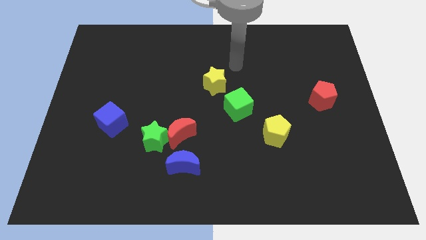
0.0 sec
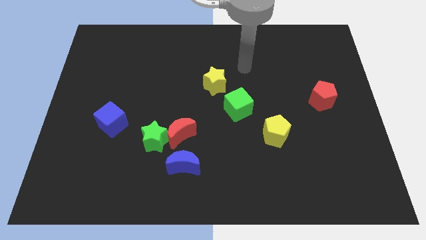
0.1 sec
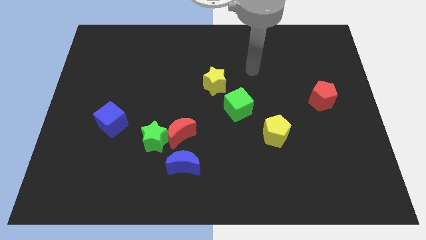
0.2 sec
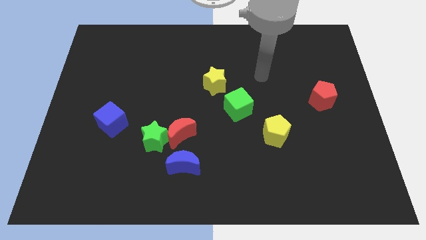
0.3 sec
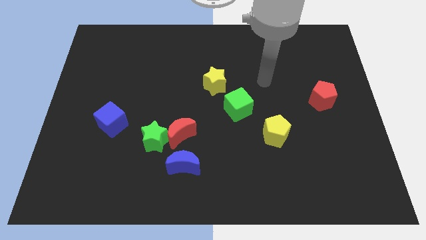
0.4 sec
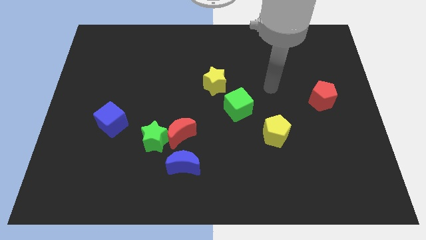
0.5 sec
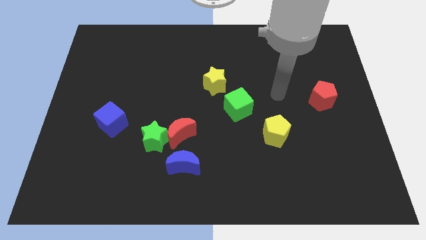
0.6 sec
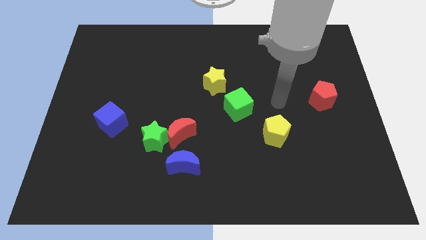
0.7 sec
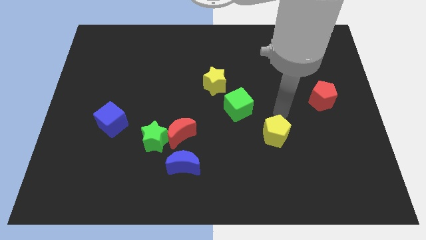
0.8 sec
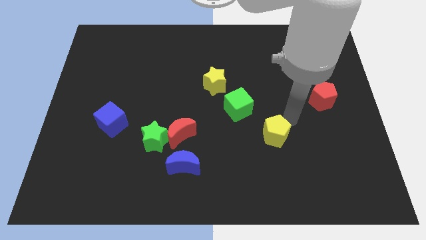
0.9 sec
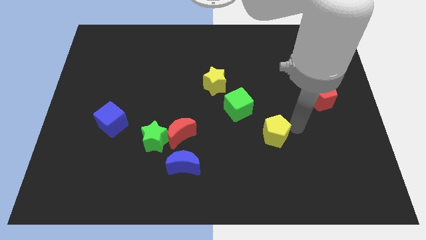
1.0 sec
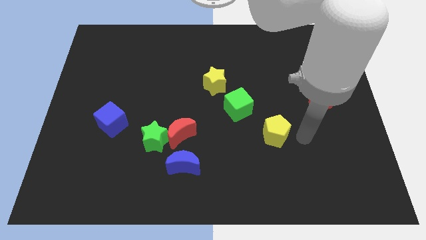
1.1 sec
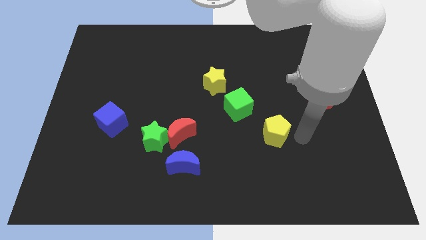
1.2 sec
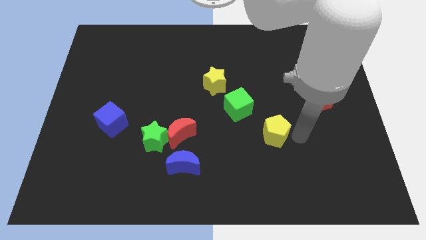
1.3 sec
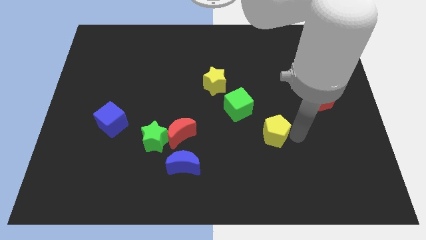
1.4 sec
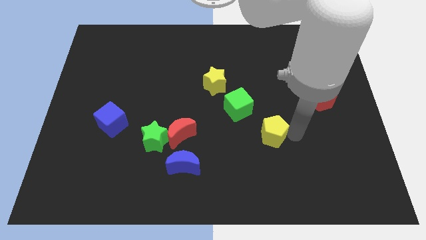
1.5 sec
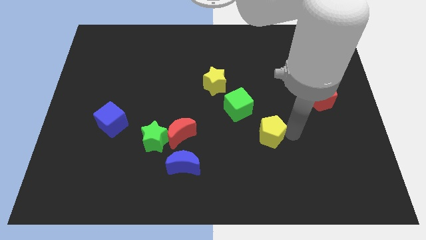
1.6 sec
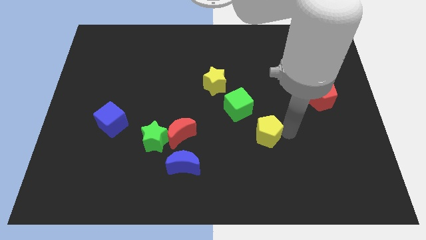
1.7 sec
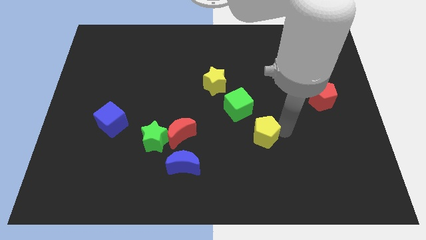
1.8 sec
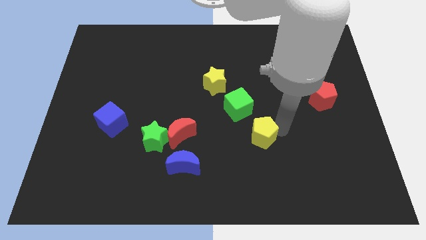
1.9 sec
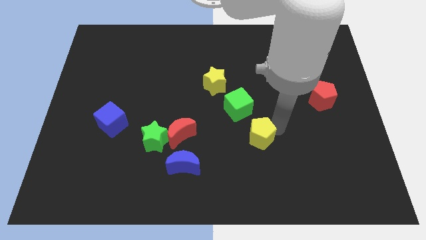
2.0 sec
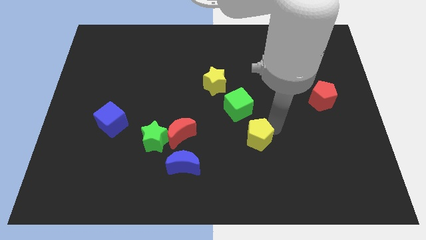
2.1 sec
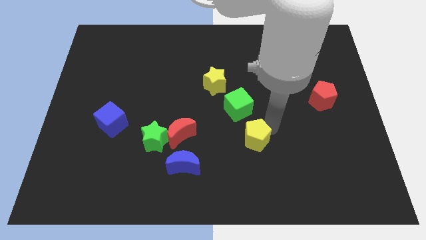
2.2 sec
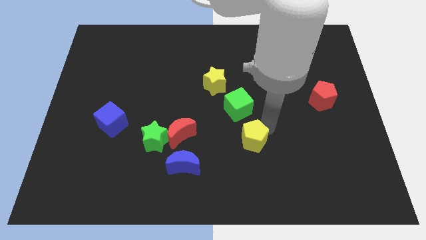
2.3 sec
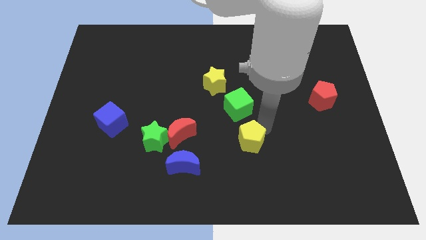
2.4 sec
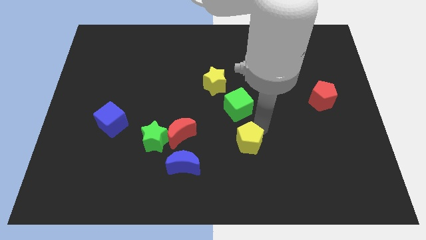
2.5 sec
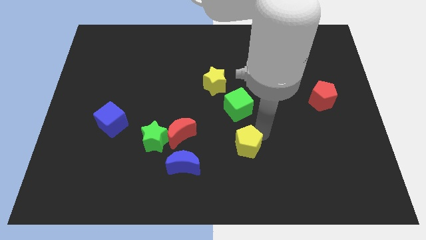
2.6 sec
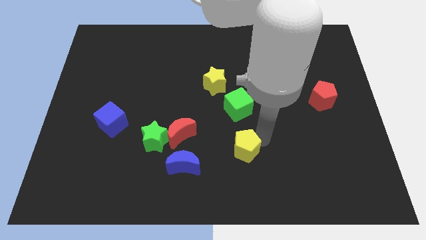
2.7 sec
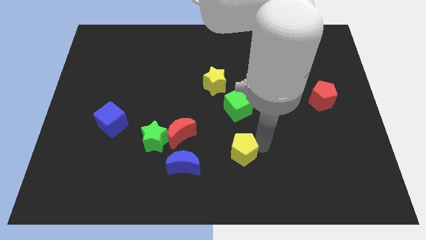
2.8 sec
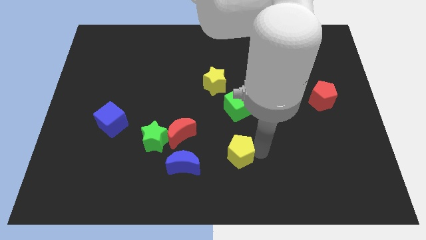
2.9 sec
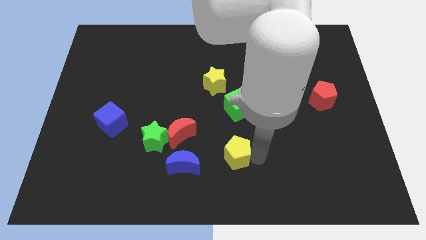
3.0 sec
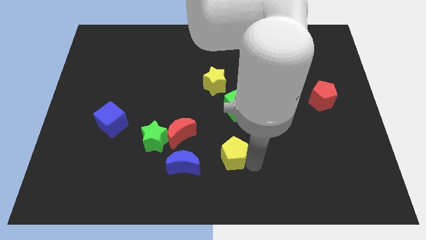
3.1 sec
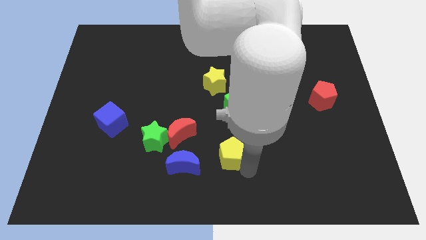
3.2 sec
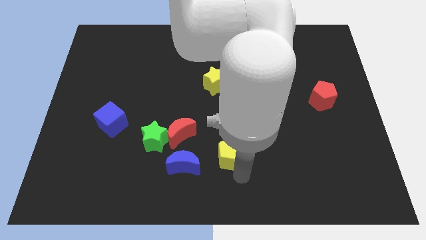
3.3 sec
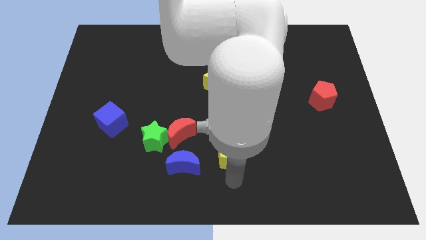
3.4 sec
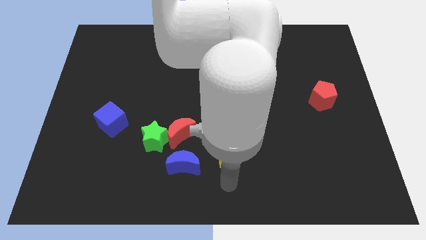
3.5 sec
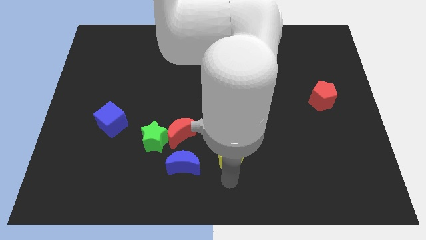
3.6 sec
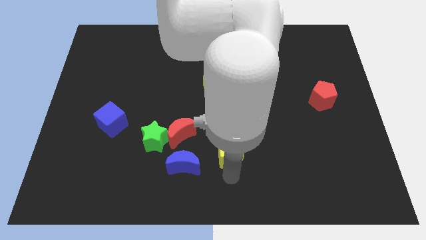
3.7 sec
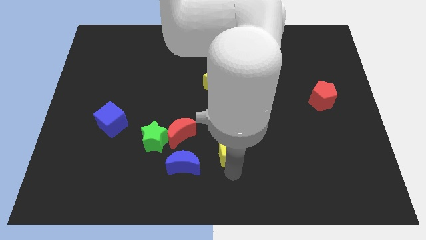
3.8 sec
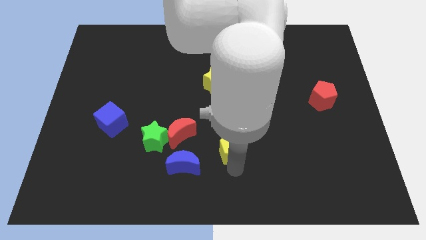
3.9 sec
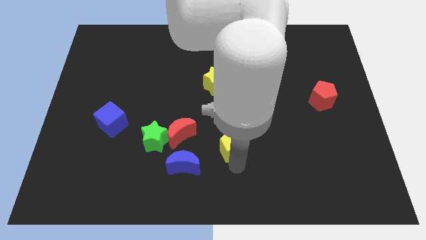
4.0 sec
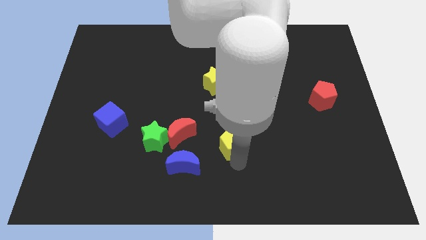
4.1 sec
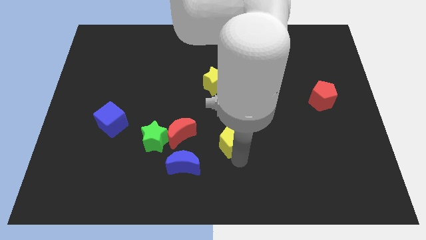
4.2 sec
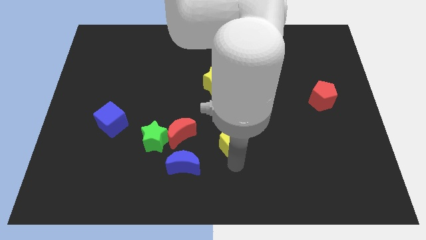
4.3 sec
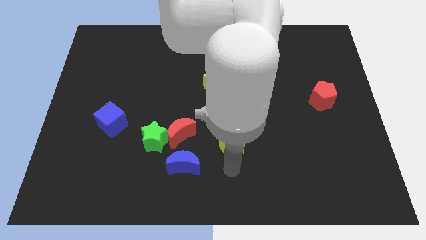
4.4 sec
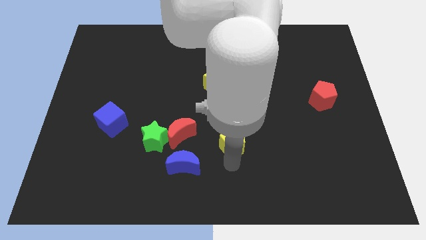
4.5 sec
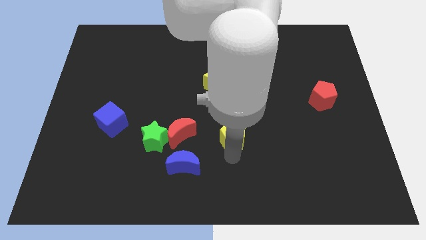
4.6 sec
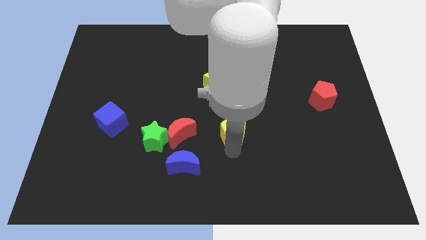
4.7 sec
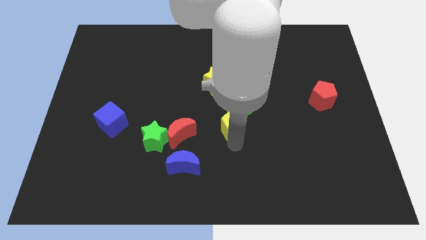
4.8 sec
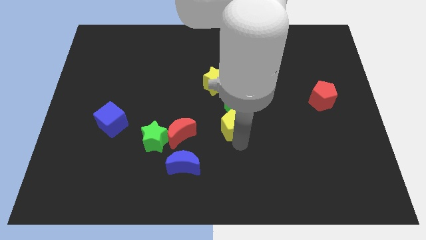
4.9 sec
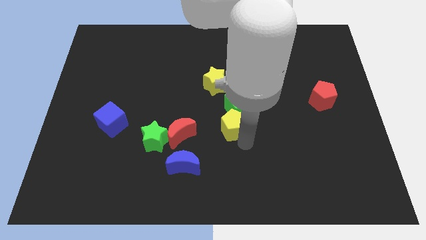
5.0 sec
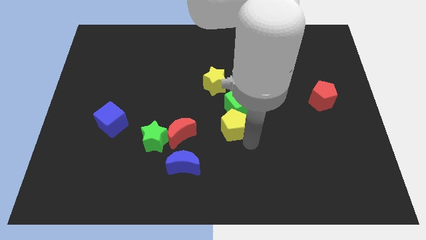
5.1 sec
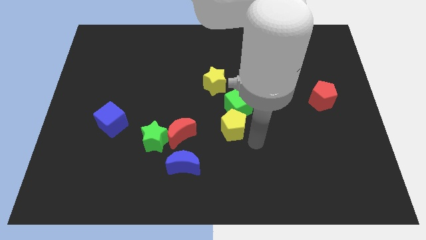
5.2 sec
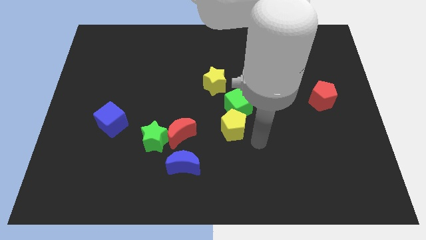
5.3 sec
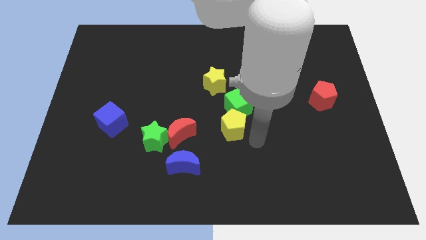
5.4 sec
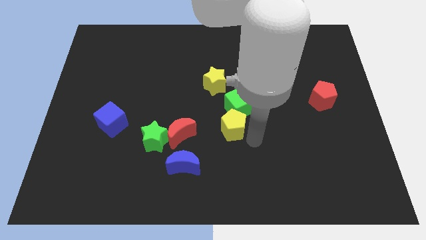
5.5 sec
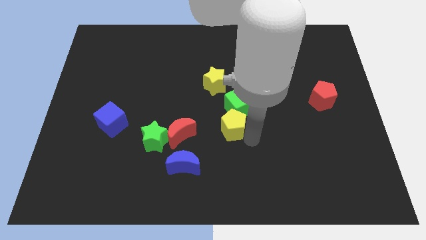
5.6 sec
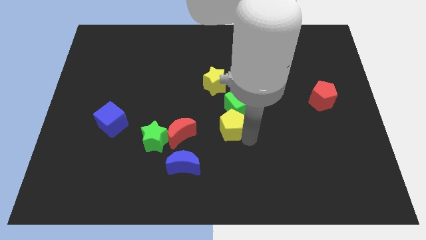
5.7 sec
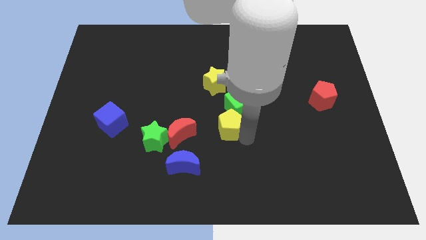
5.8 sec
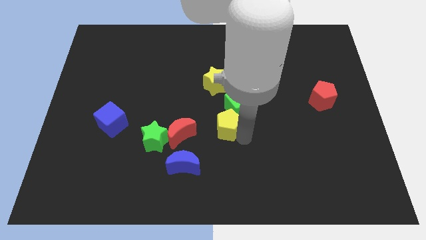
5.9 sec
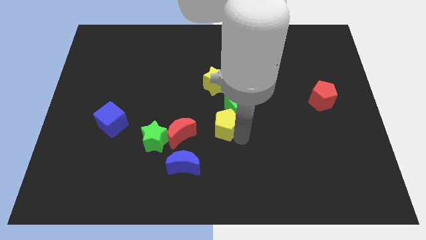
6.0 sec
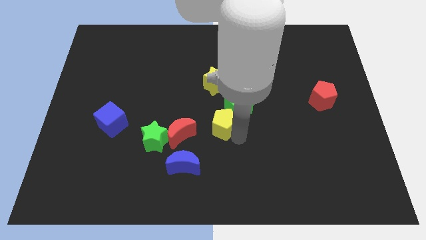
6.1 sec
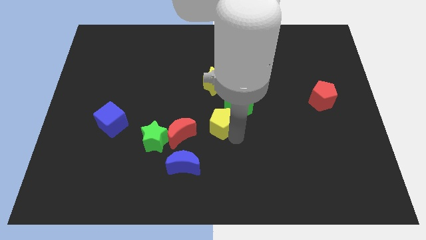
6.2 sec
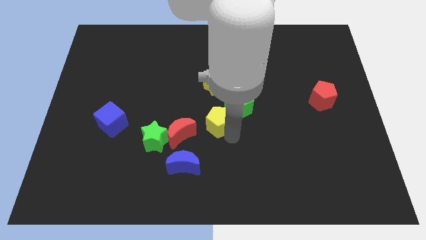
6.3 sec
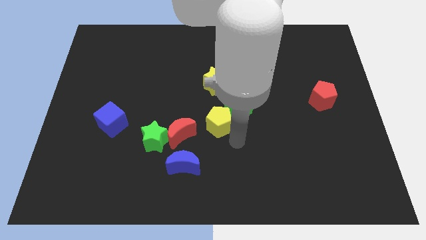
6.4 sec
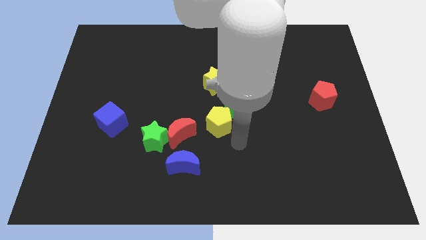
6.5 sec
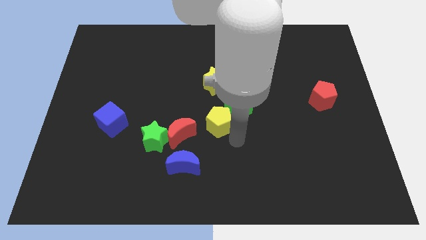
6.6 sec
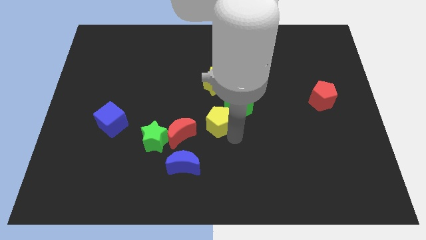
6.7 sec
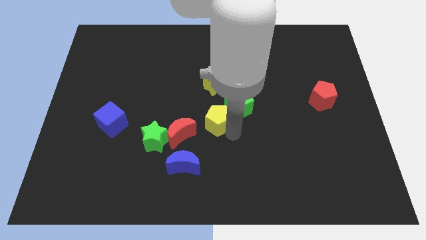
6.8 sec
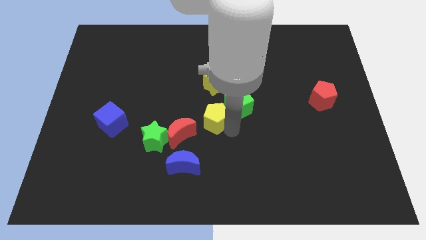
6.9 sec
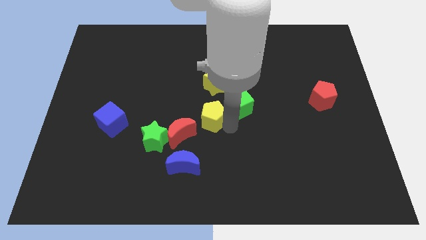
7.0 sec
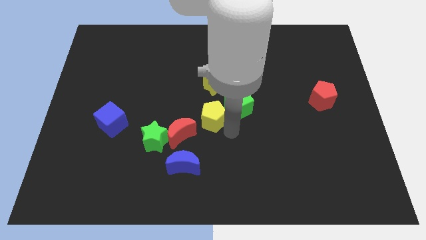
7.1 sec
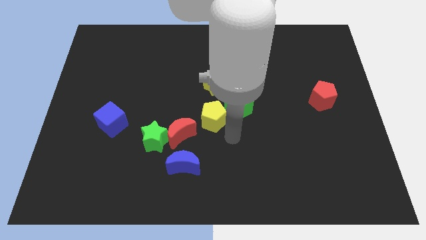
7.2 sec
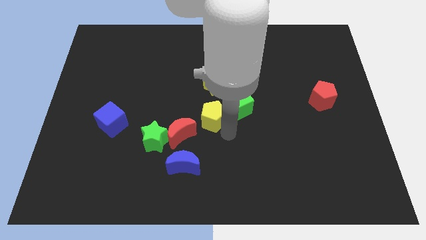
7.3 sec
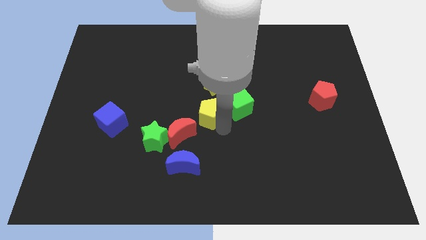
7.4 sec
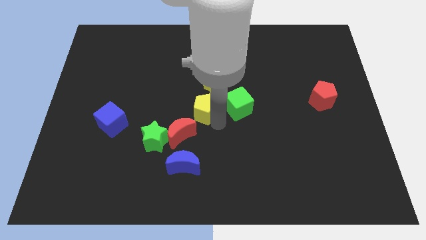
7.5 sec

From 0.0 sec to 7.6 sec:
slide the yellow pentagon diagonally down and to the left of the yellow star
